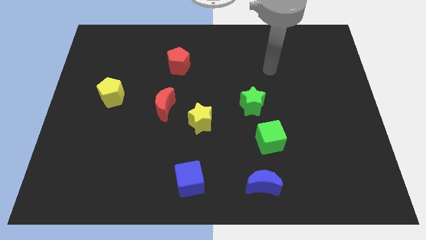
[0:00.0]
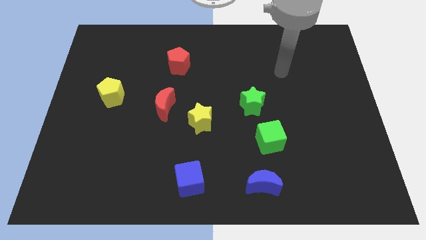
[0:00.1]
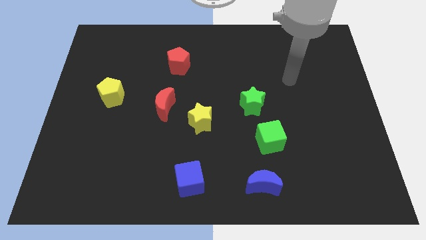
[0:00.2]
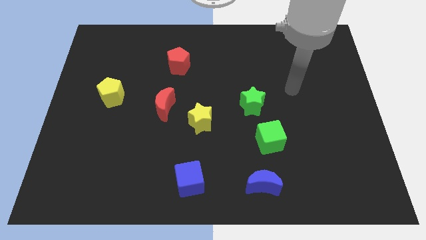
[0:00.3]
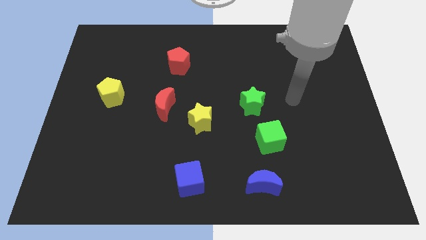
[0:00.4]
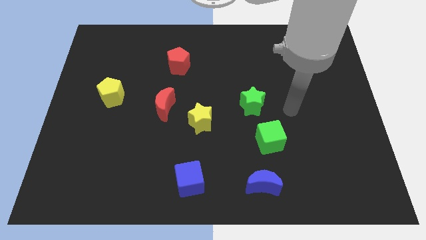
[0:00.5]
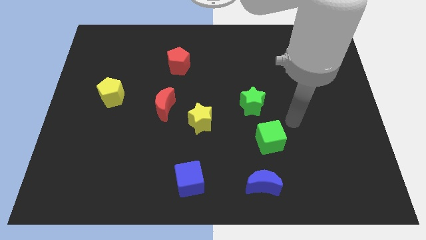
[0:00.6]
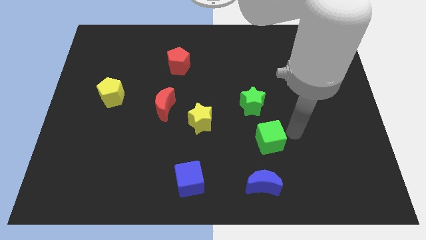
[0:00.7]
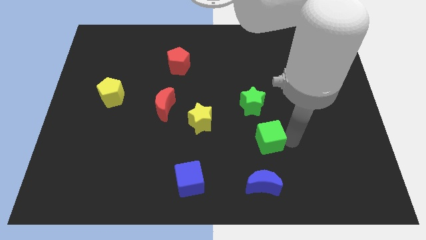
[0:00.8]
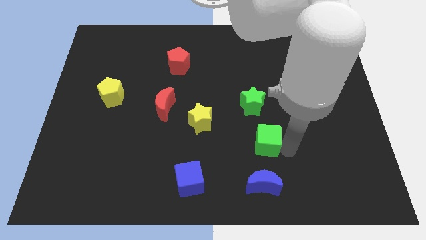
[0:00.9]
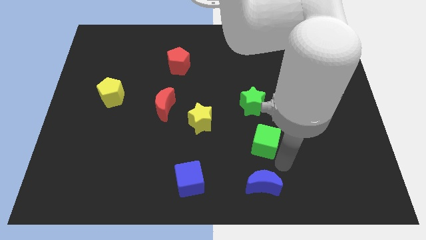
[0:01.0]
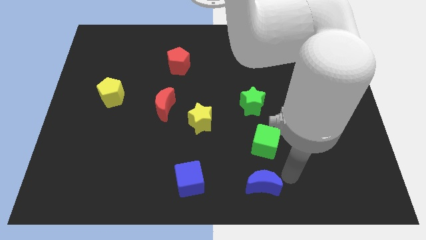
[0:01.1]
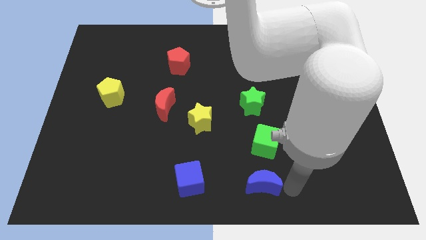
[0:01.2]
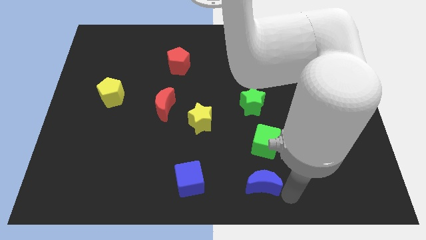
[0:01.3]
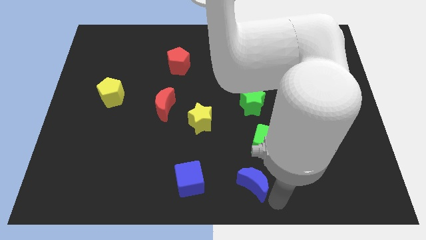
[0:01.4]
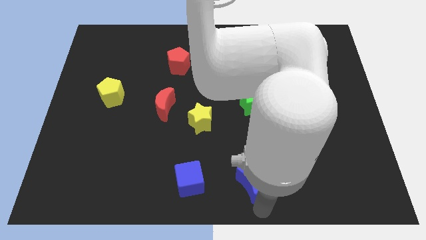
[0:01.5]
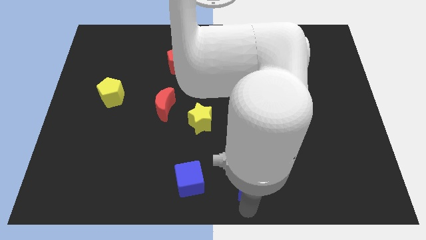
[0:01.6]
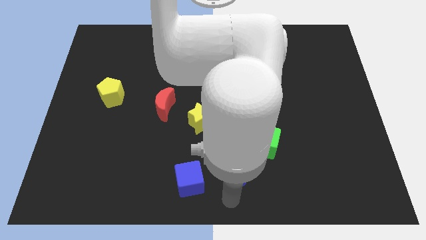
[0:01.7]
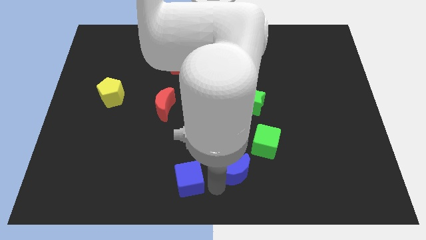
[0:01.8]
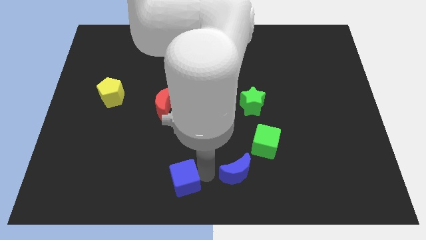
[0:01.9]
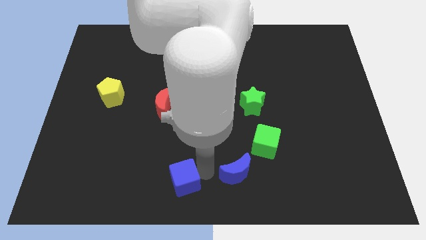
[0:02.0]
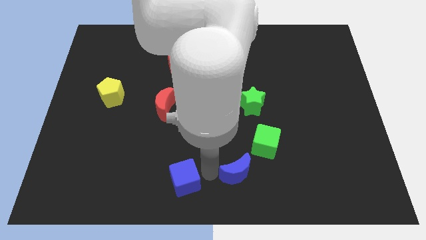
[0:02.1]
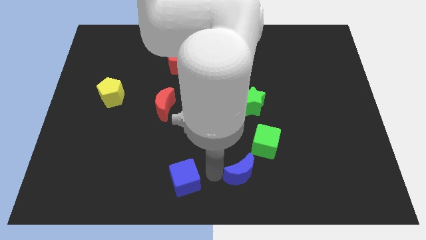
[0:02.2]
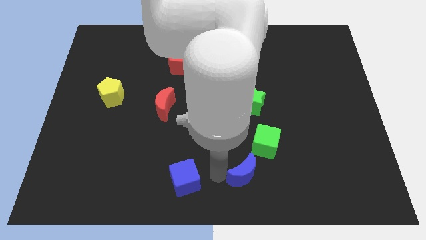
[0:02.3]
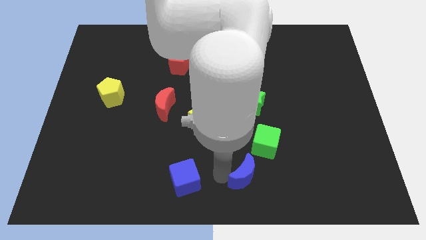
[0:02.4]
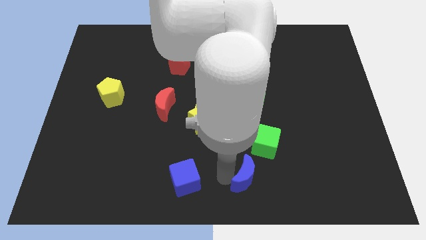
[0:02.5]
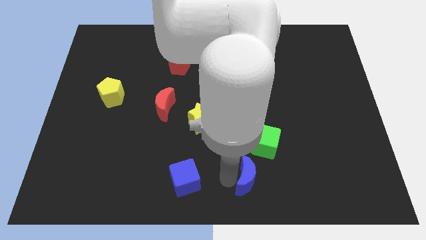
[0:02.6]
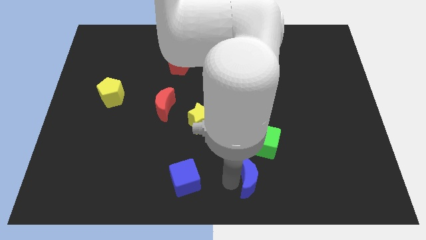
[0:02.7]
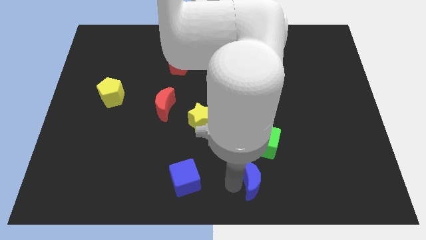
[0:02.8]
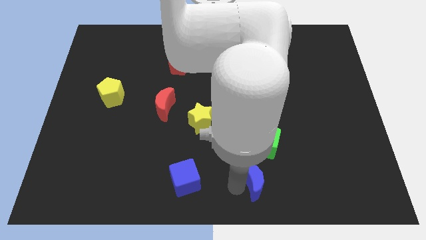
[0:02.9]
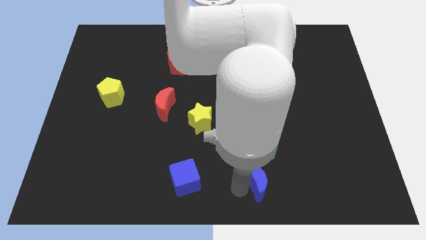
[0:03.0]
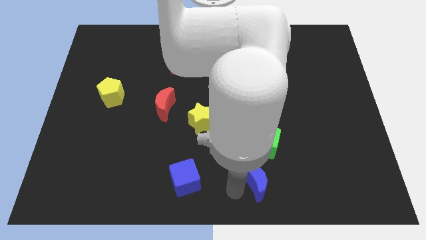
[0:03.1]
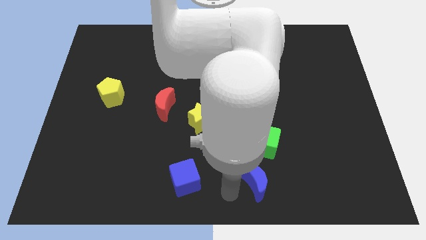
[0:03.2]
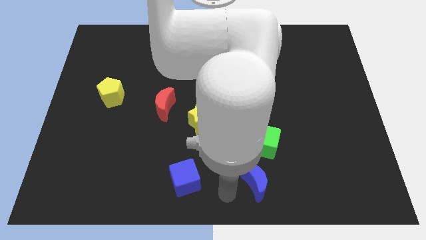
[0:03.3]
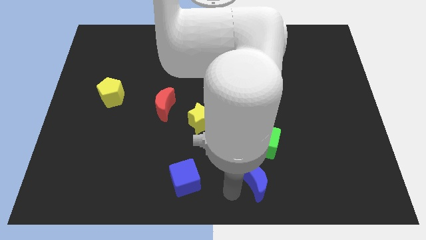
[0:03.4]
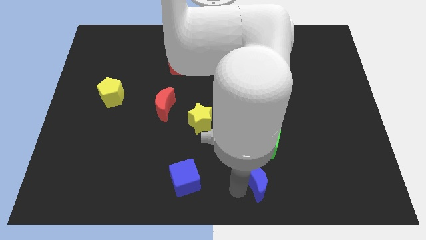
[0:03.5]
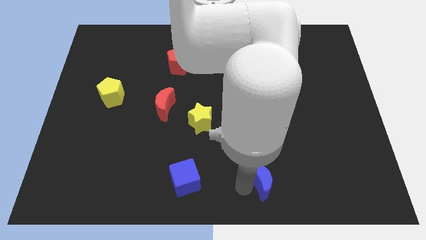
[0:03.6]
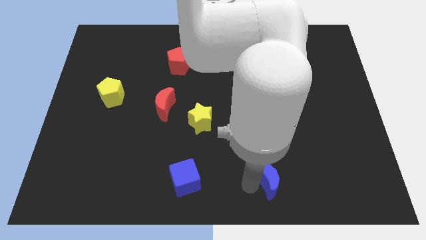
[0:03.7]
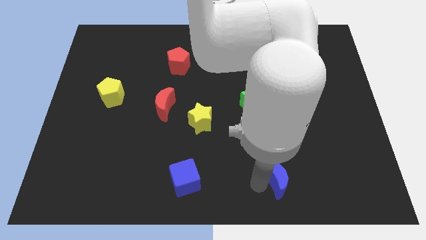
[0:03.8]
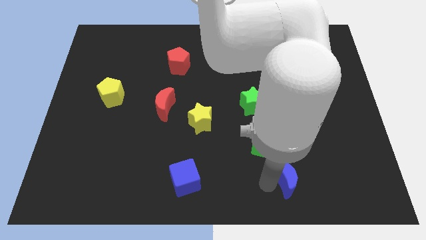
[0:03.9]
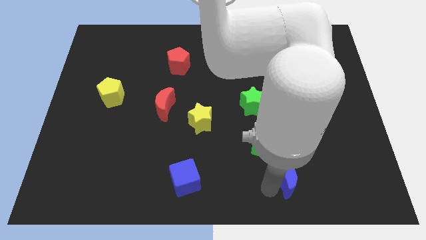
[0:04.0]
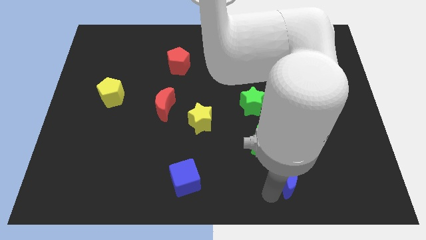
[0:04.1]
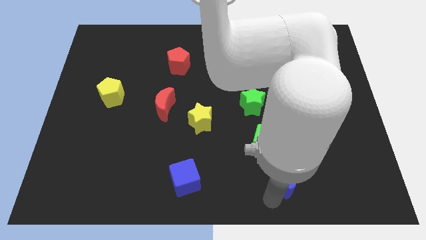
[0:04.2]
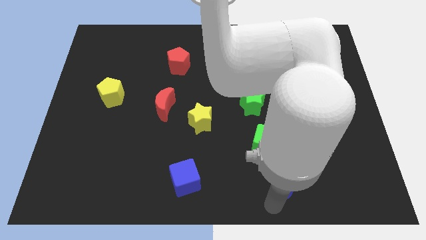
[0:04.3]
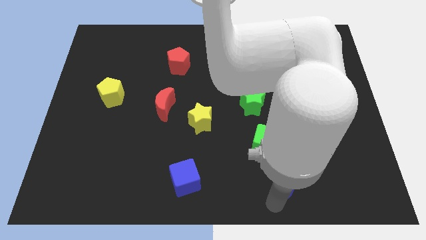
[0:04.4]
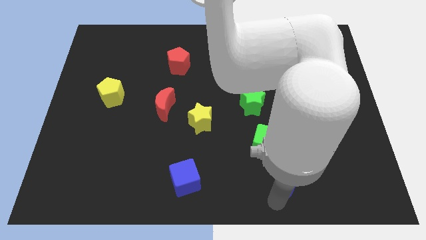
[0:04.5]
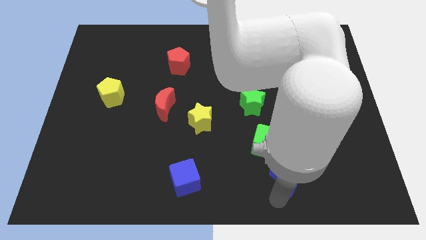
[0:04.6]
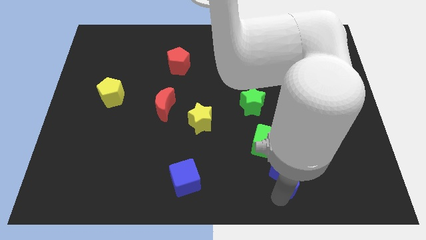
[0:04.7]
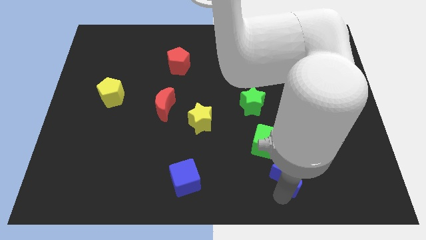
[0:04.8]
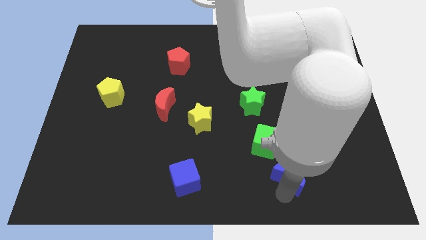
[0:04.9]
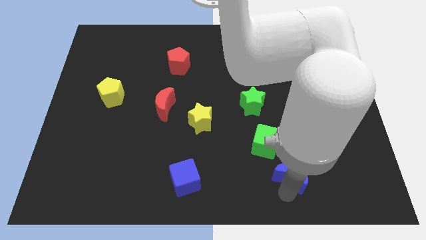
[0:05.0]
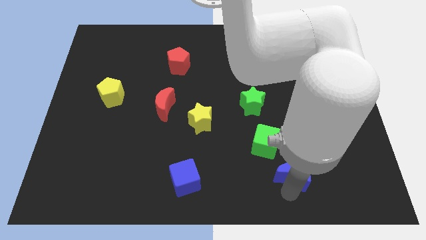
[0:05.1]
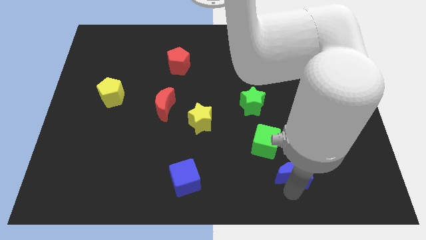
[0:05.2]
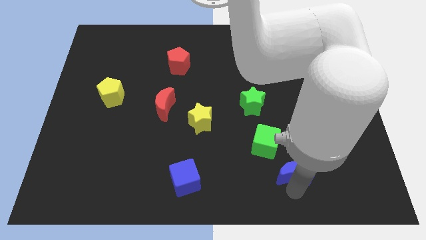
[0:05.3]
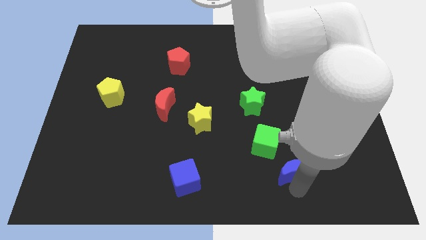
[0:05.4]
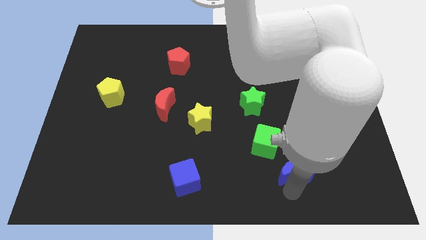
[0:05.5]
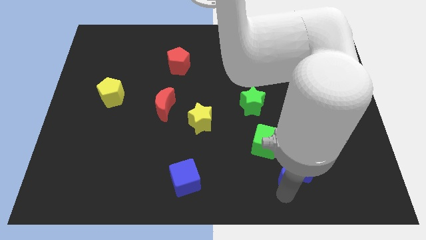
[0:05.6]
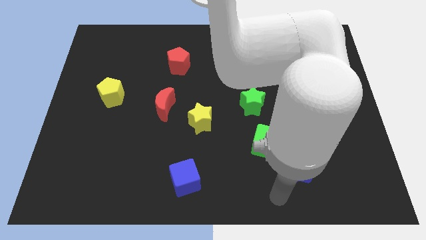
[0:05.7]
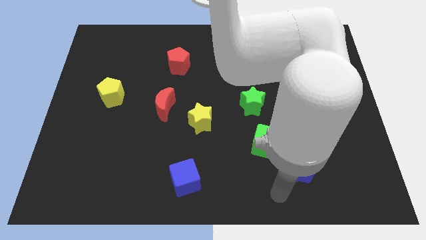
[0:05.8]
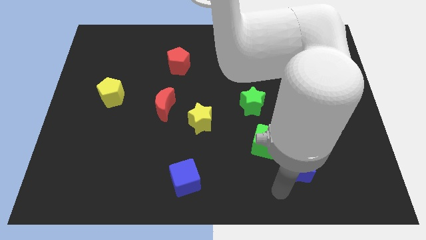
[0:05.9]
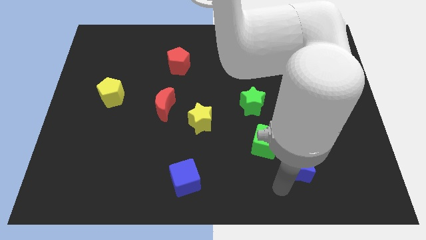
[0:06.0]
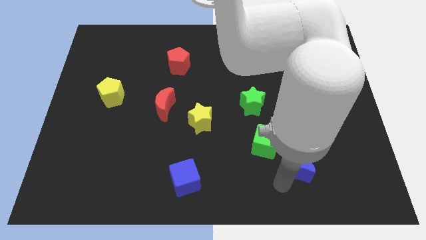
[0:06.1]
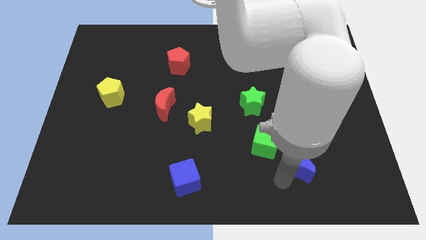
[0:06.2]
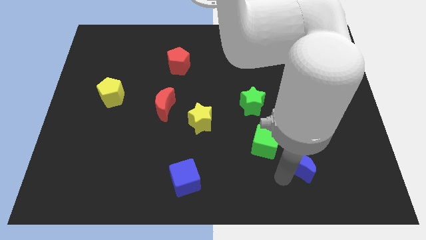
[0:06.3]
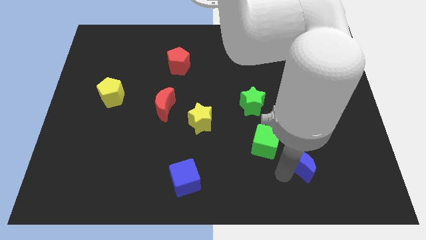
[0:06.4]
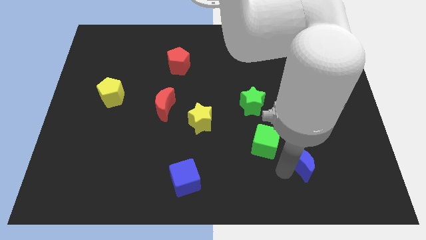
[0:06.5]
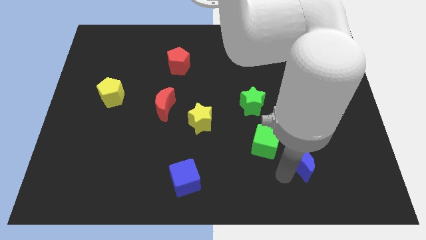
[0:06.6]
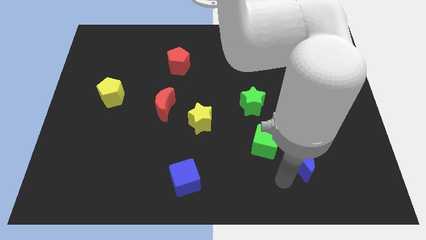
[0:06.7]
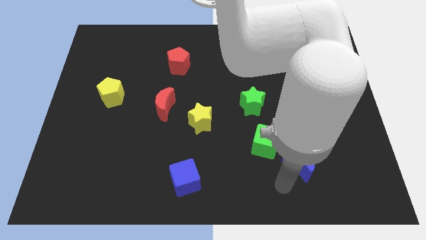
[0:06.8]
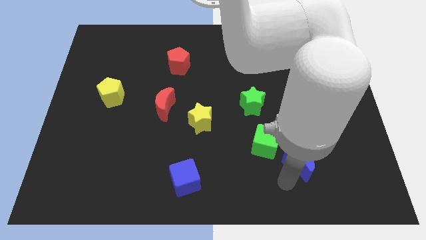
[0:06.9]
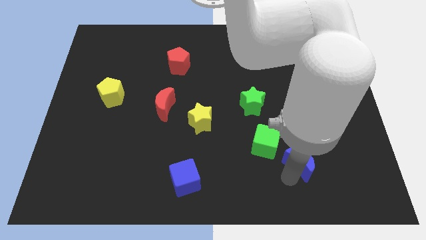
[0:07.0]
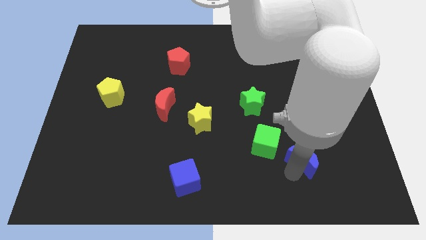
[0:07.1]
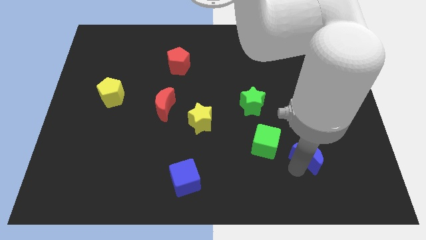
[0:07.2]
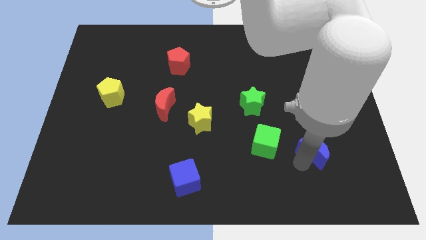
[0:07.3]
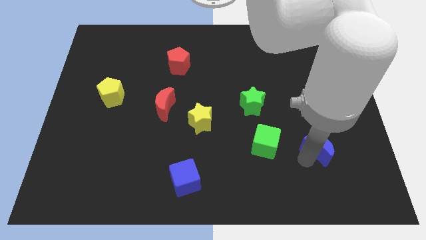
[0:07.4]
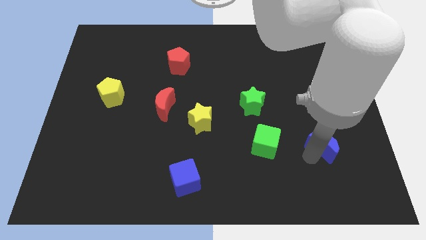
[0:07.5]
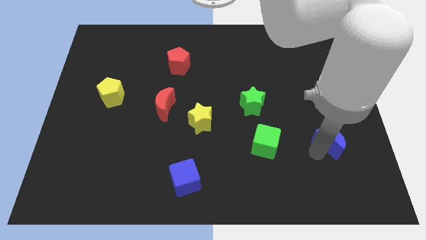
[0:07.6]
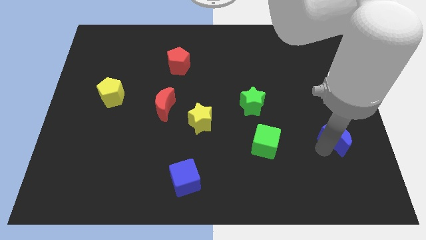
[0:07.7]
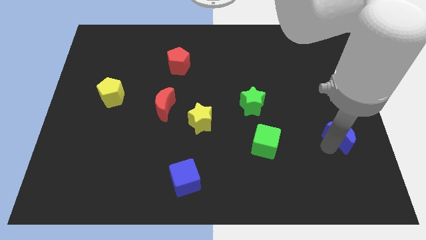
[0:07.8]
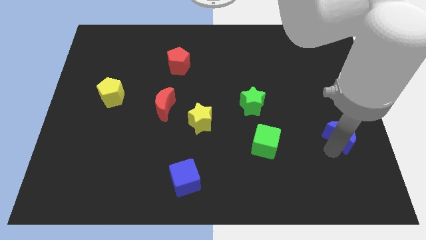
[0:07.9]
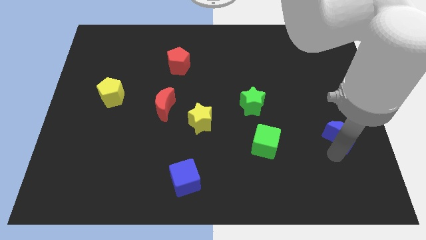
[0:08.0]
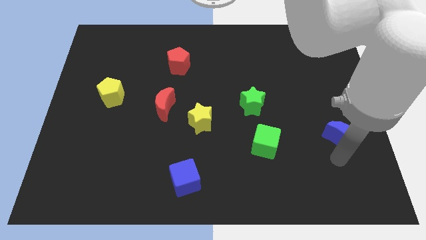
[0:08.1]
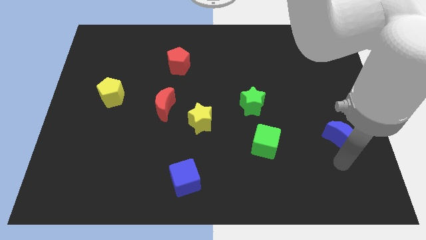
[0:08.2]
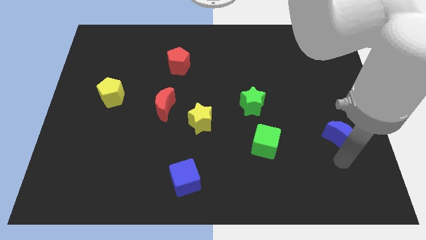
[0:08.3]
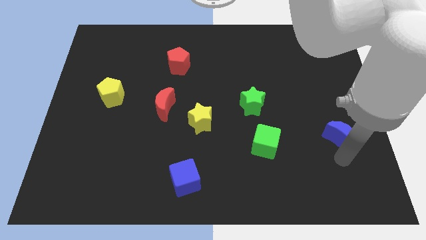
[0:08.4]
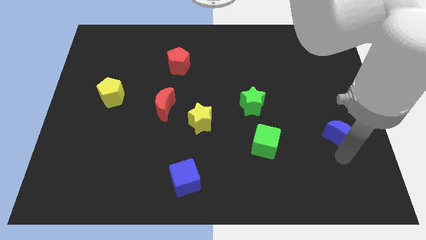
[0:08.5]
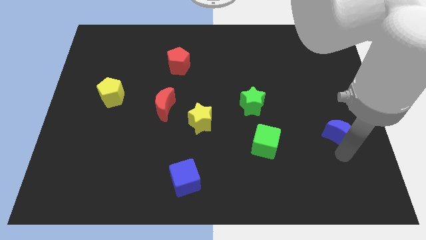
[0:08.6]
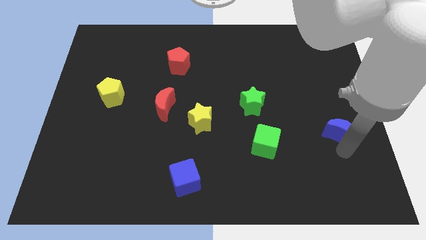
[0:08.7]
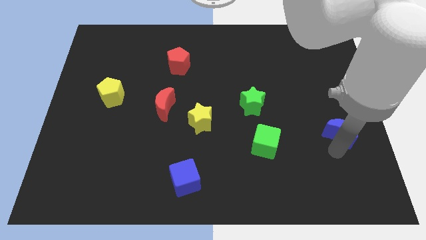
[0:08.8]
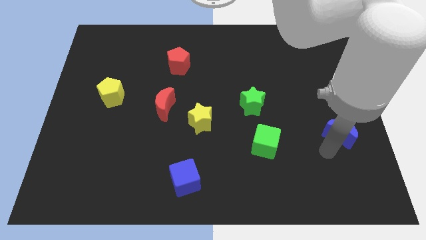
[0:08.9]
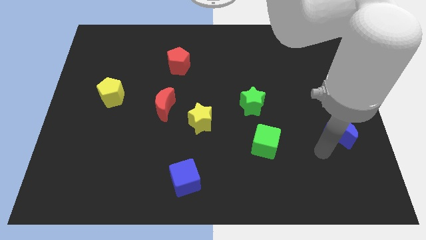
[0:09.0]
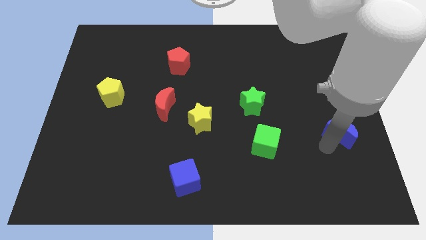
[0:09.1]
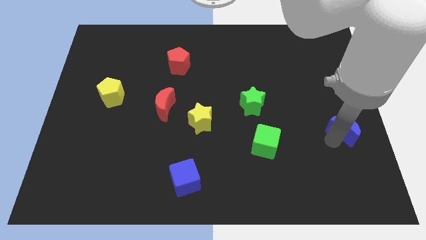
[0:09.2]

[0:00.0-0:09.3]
put the blue moon to the center right
